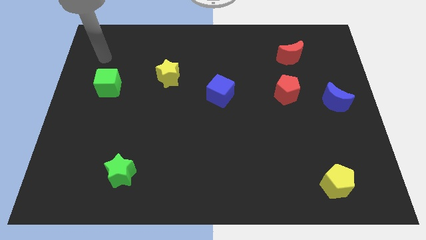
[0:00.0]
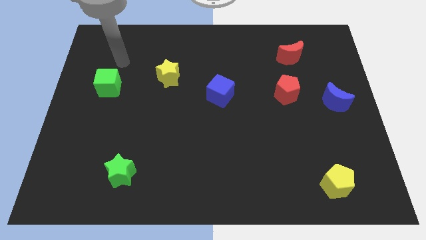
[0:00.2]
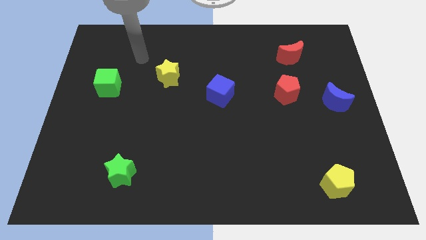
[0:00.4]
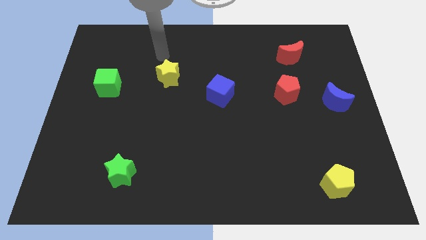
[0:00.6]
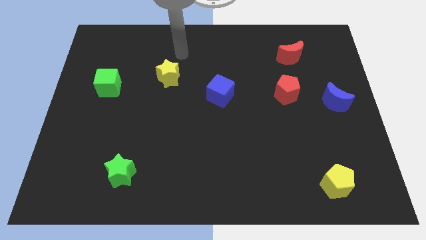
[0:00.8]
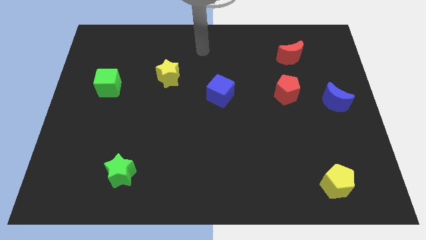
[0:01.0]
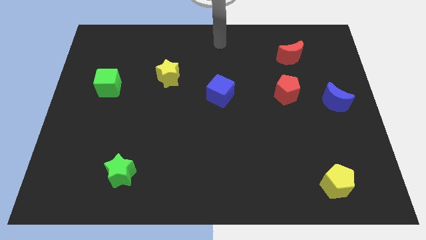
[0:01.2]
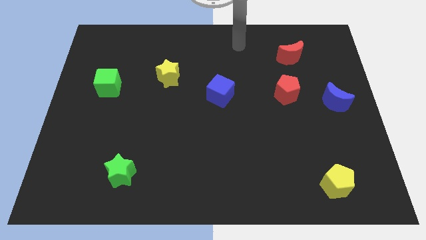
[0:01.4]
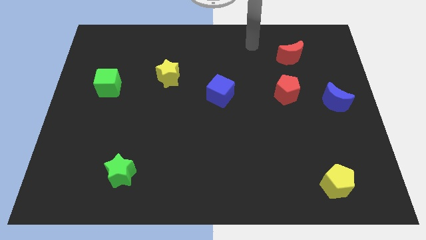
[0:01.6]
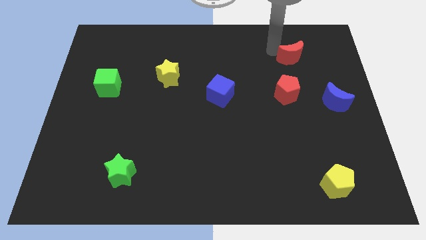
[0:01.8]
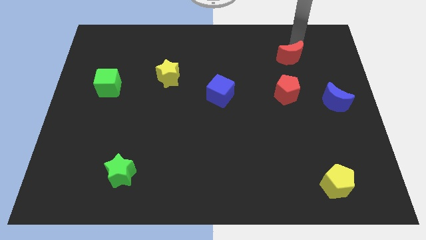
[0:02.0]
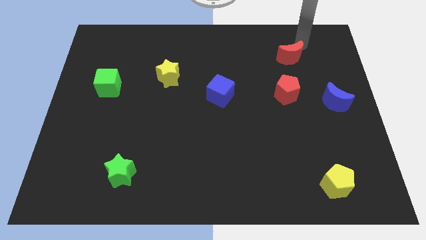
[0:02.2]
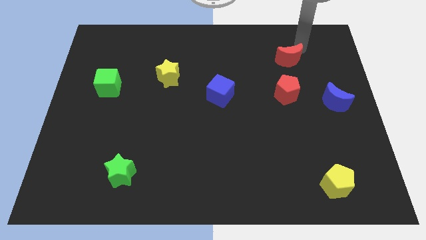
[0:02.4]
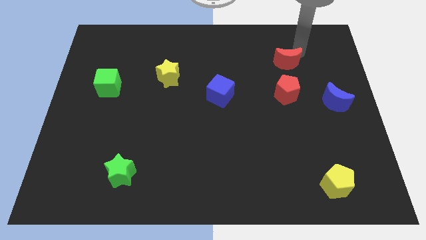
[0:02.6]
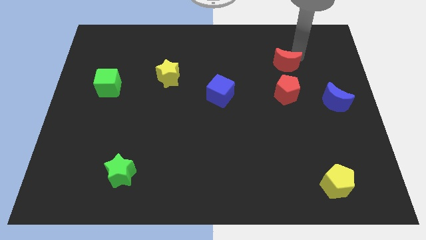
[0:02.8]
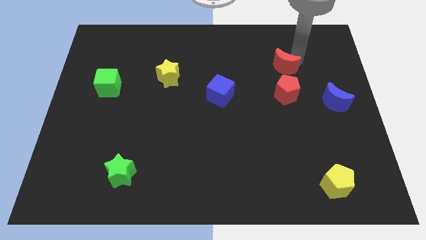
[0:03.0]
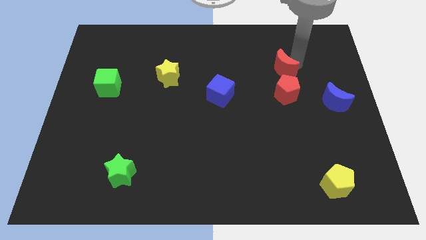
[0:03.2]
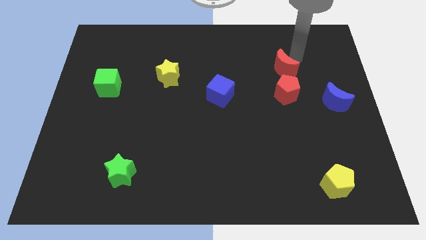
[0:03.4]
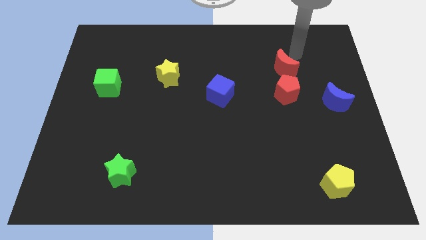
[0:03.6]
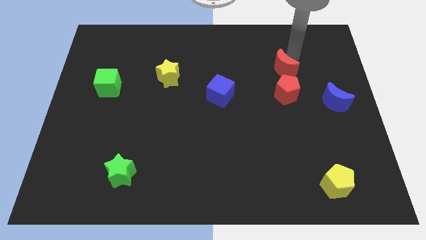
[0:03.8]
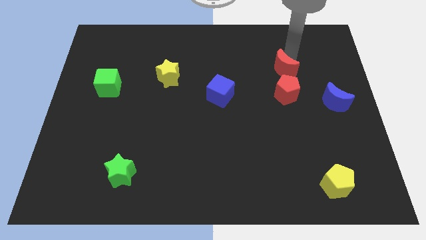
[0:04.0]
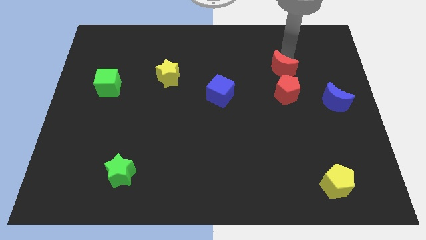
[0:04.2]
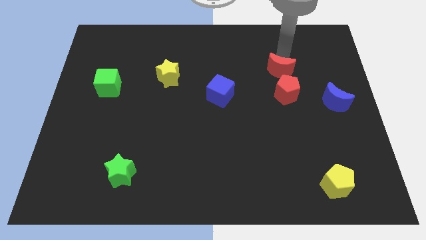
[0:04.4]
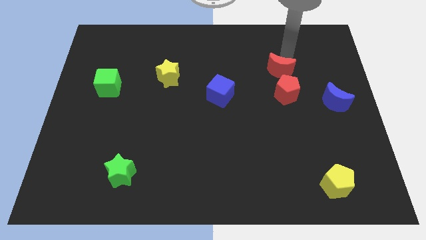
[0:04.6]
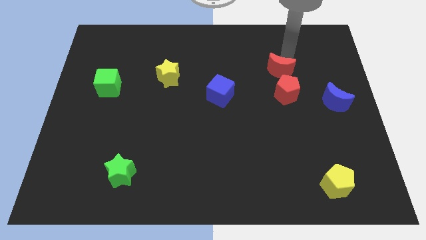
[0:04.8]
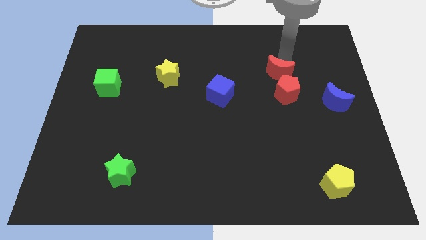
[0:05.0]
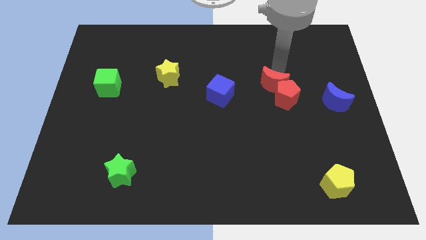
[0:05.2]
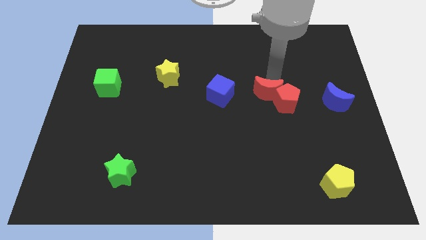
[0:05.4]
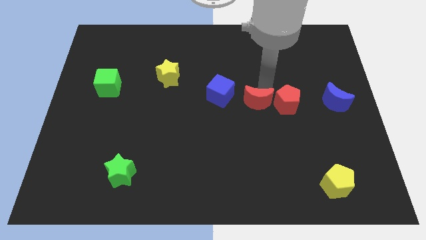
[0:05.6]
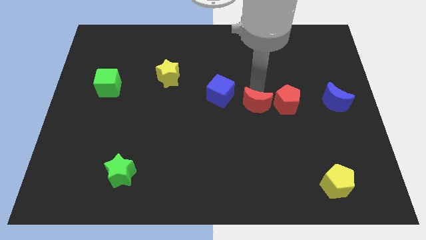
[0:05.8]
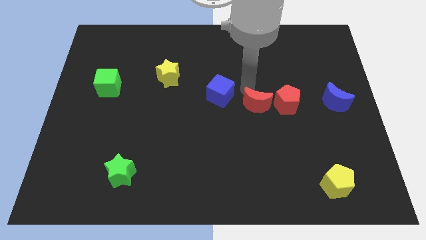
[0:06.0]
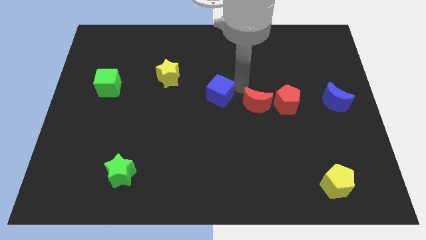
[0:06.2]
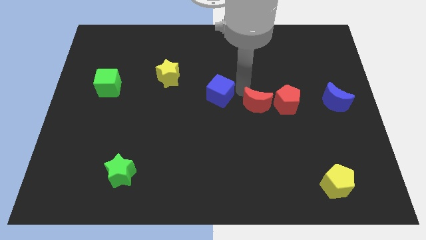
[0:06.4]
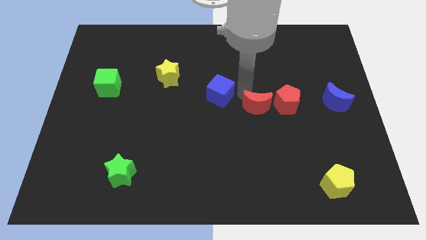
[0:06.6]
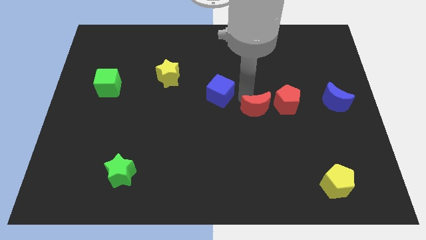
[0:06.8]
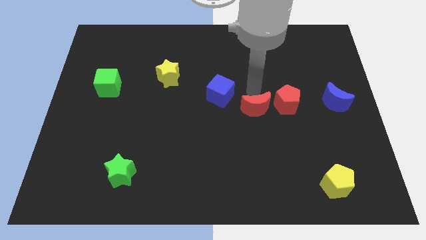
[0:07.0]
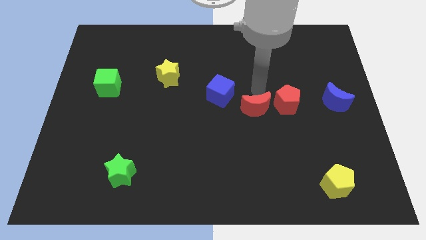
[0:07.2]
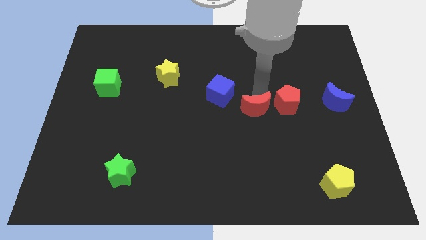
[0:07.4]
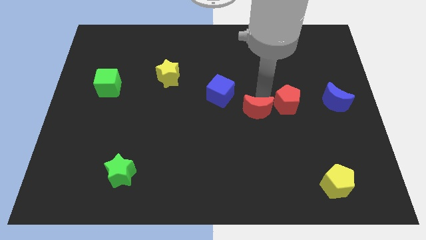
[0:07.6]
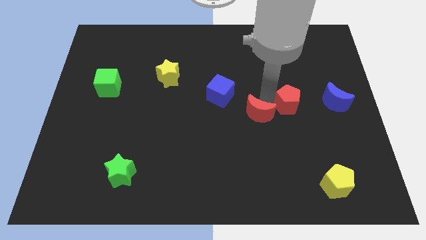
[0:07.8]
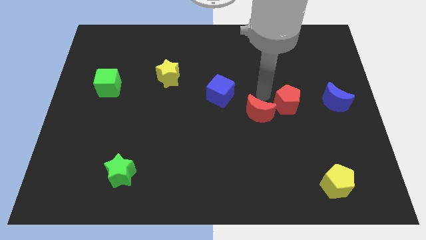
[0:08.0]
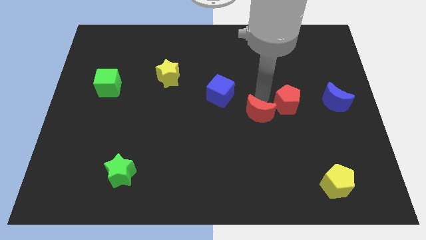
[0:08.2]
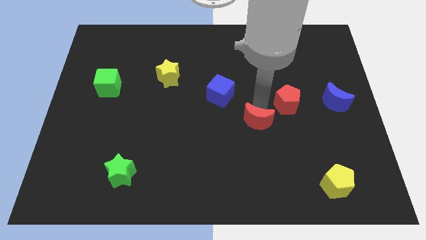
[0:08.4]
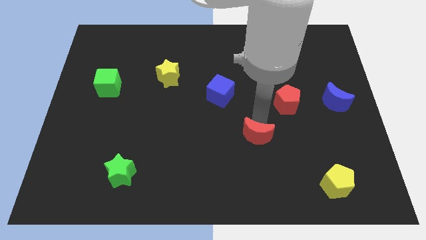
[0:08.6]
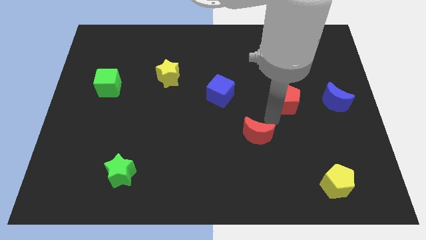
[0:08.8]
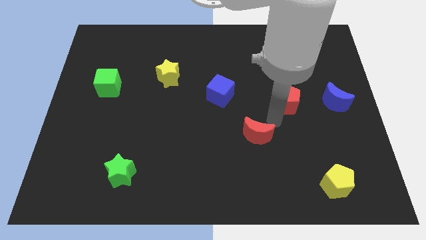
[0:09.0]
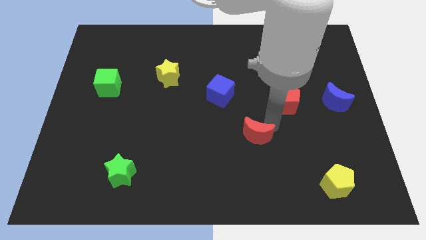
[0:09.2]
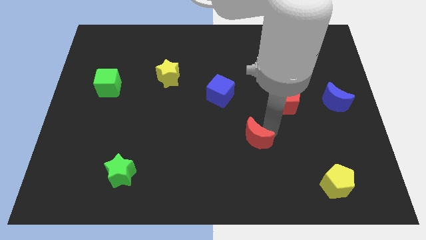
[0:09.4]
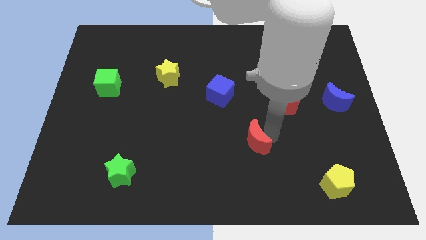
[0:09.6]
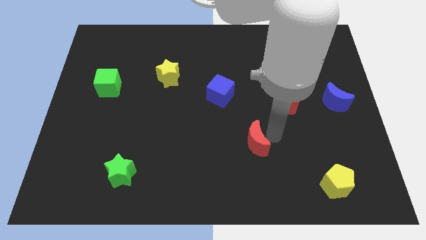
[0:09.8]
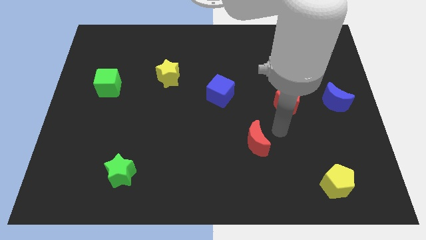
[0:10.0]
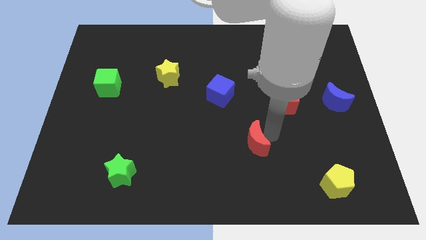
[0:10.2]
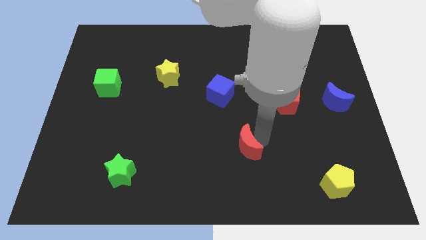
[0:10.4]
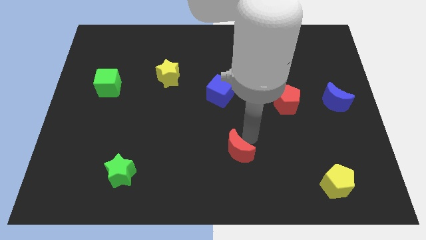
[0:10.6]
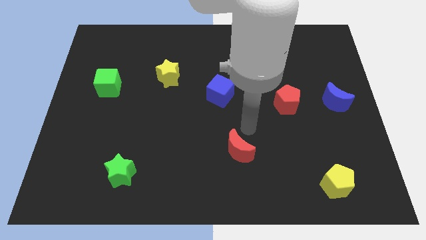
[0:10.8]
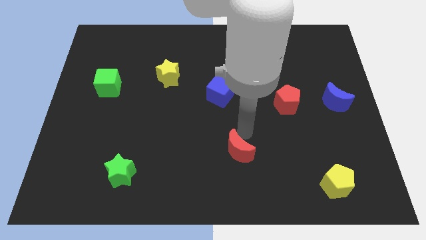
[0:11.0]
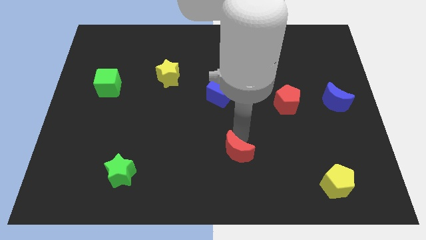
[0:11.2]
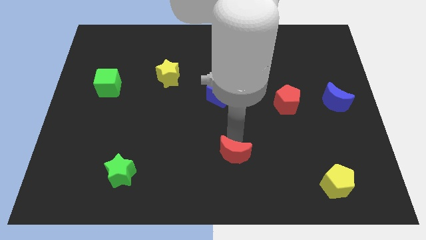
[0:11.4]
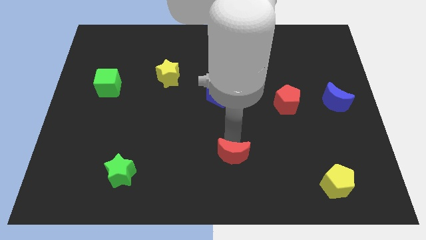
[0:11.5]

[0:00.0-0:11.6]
move the red moon to the bottom side

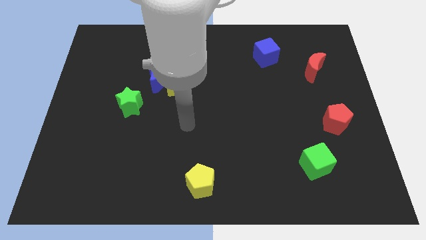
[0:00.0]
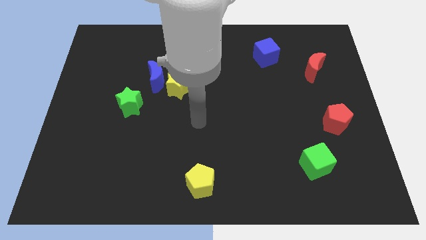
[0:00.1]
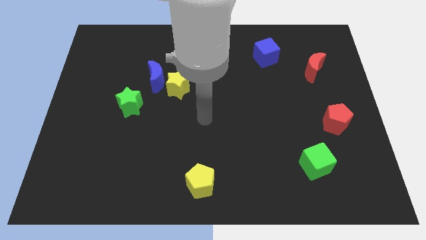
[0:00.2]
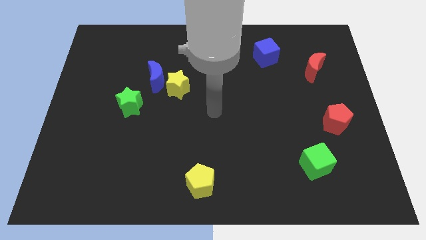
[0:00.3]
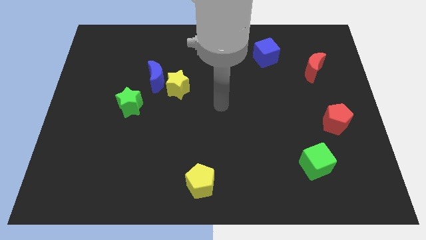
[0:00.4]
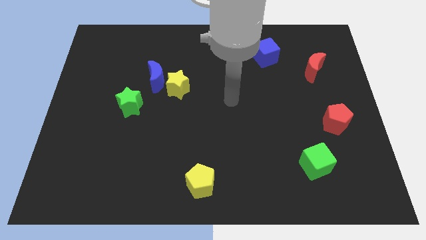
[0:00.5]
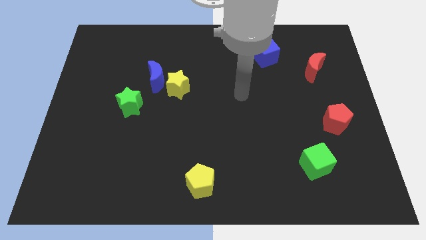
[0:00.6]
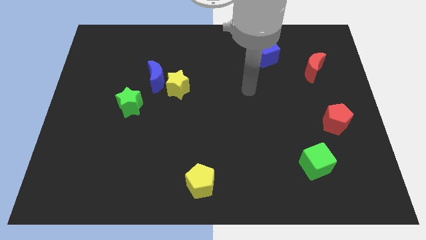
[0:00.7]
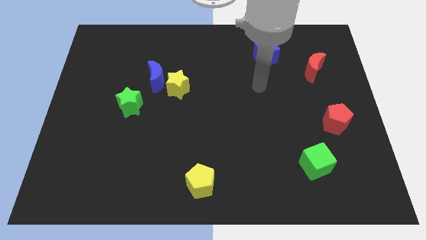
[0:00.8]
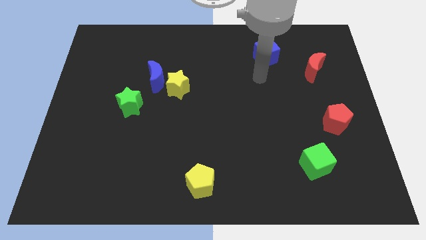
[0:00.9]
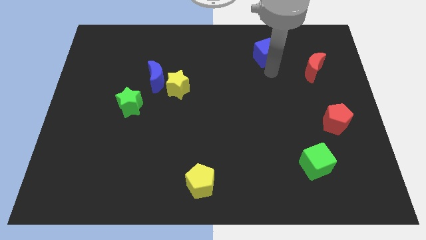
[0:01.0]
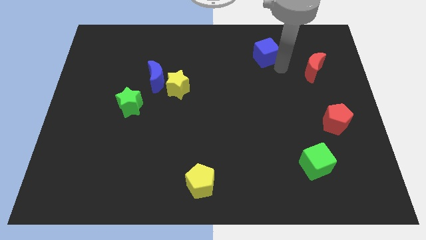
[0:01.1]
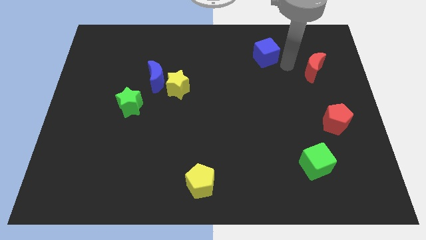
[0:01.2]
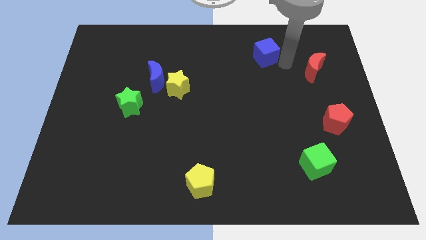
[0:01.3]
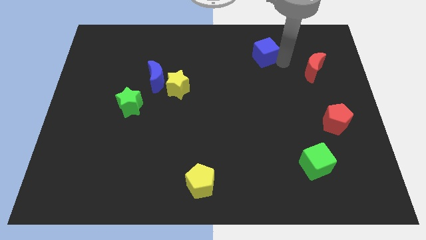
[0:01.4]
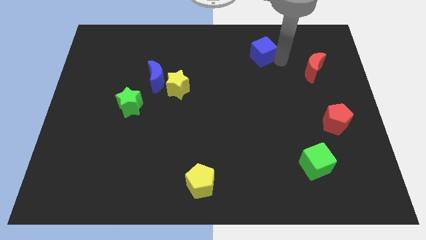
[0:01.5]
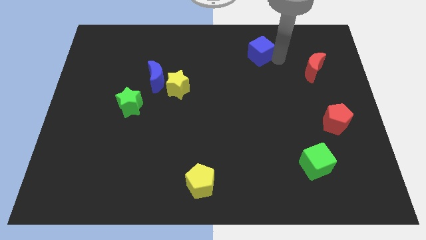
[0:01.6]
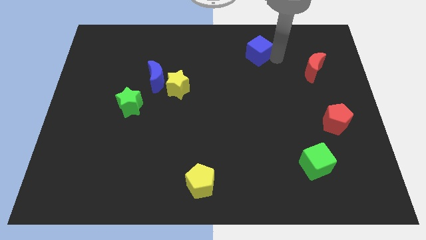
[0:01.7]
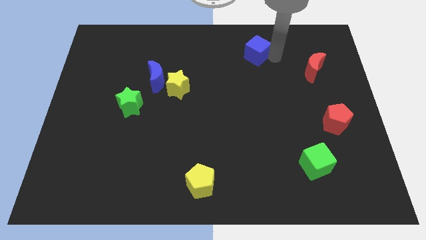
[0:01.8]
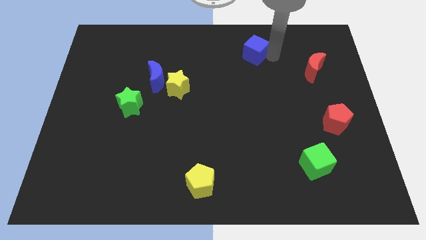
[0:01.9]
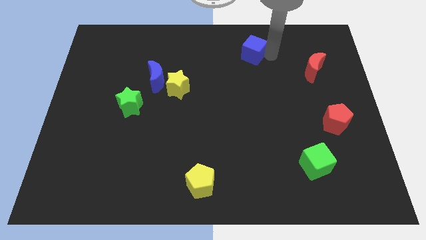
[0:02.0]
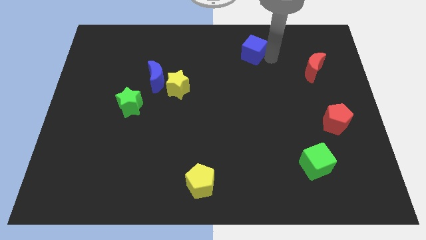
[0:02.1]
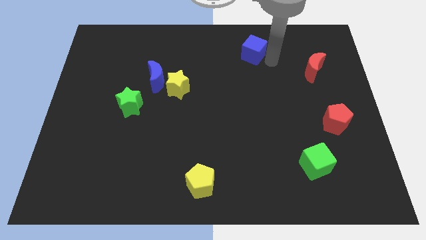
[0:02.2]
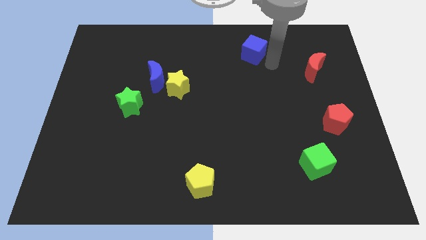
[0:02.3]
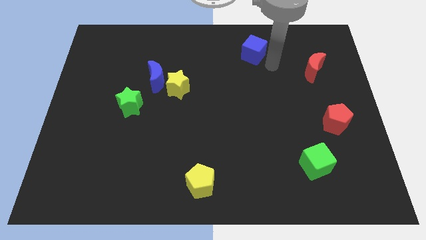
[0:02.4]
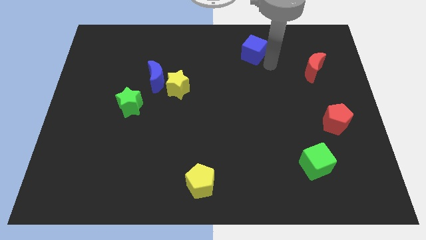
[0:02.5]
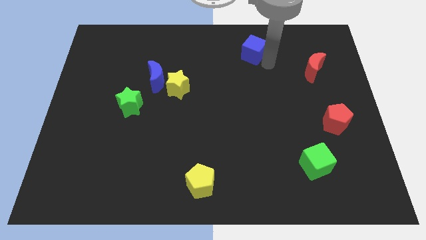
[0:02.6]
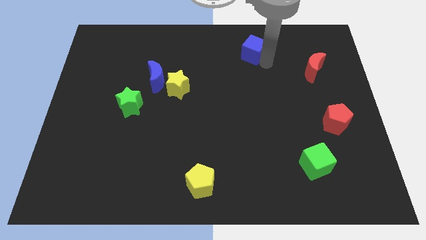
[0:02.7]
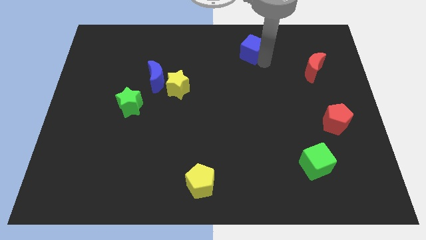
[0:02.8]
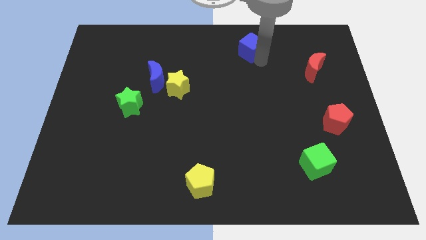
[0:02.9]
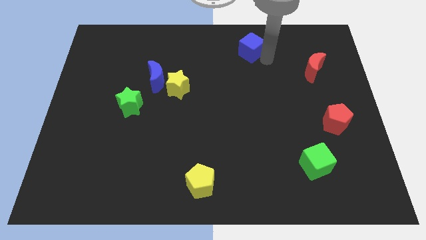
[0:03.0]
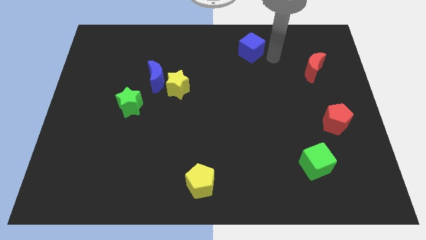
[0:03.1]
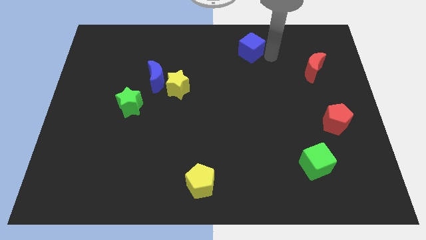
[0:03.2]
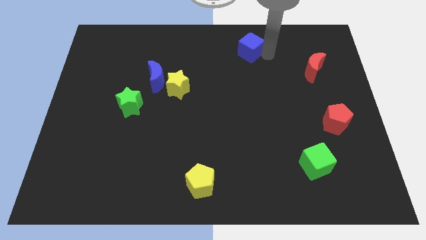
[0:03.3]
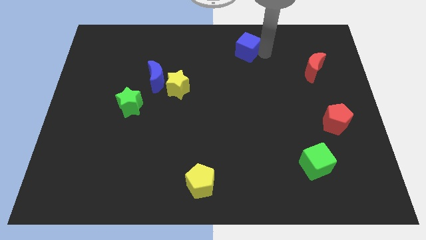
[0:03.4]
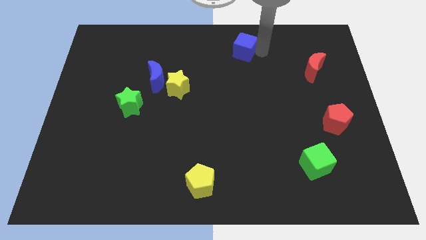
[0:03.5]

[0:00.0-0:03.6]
slide the blue cube to the towards your base
